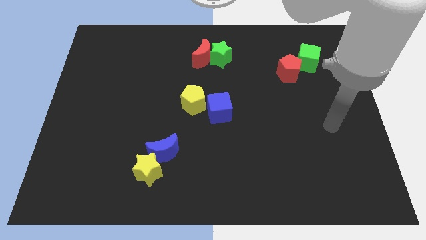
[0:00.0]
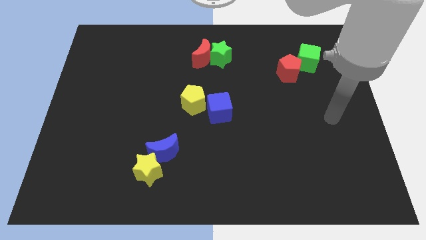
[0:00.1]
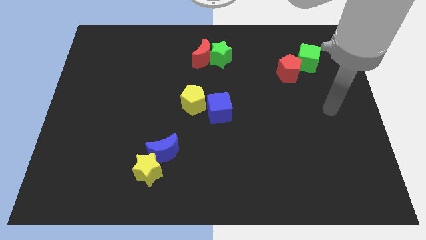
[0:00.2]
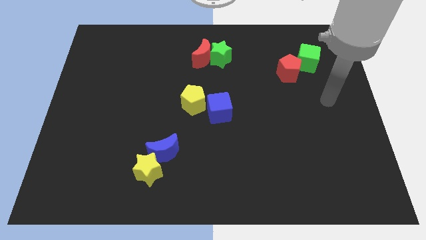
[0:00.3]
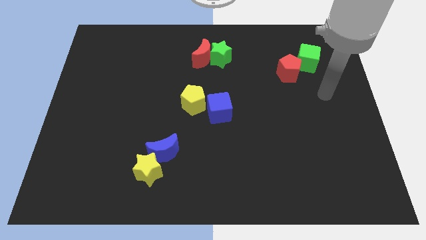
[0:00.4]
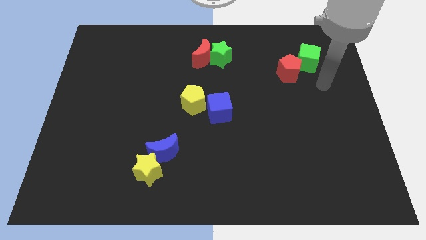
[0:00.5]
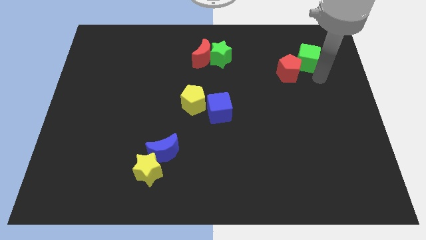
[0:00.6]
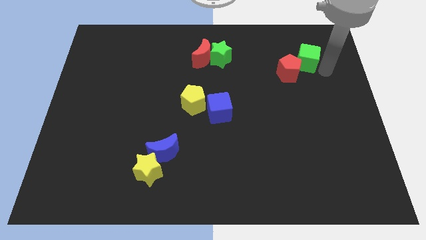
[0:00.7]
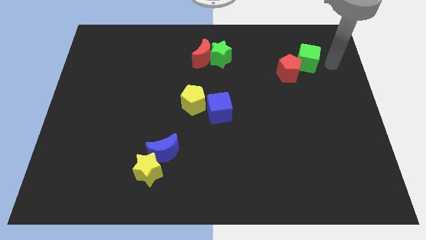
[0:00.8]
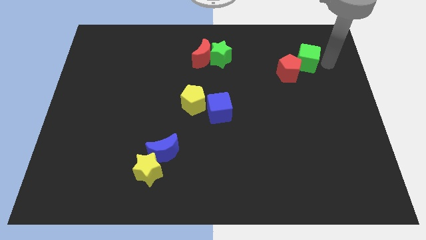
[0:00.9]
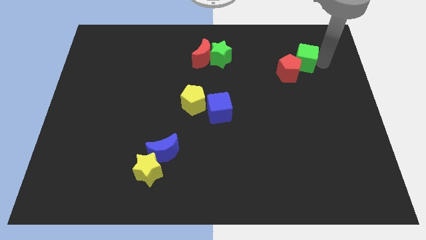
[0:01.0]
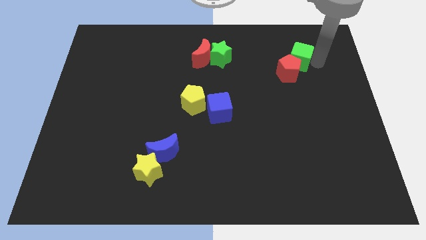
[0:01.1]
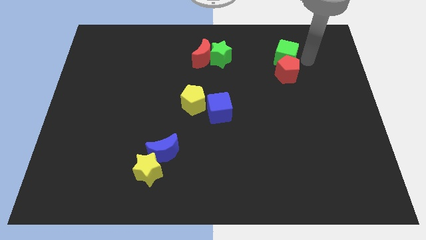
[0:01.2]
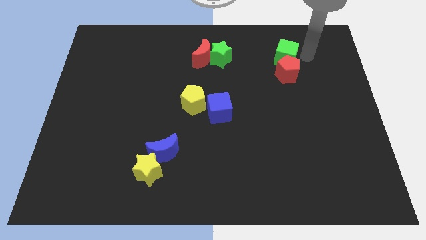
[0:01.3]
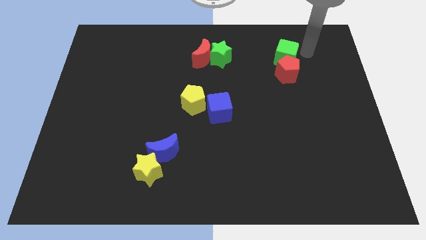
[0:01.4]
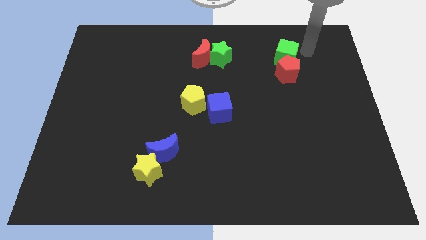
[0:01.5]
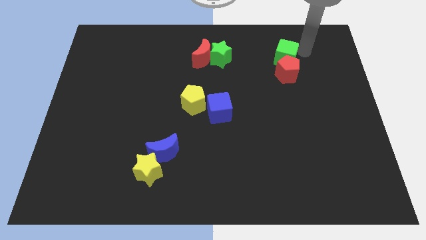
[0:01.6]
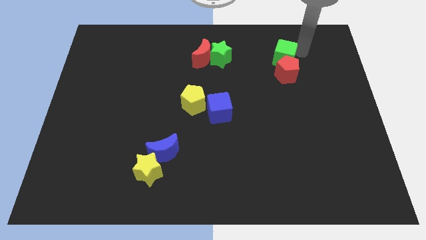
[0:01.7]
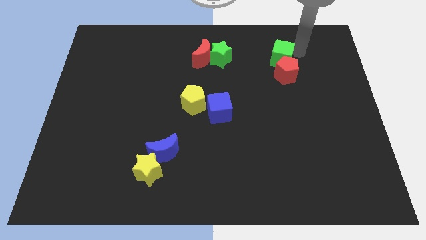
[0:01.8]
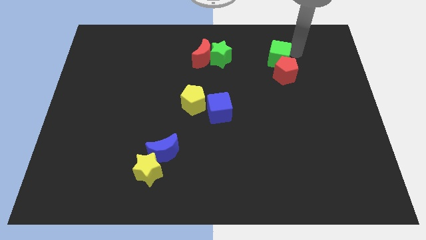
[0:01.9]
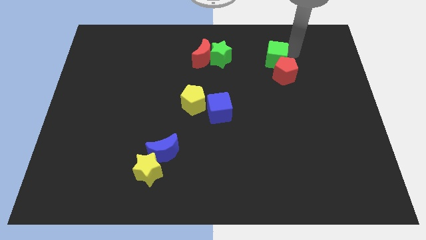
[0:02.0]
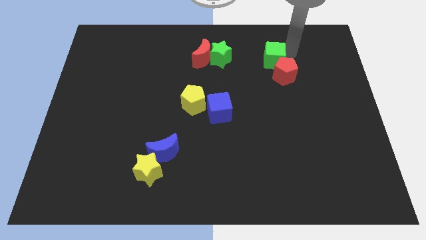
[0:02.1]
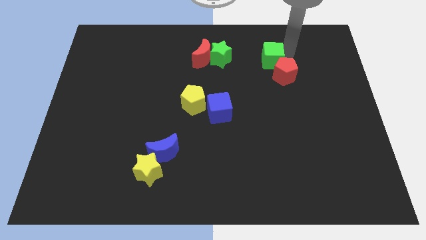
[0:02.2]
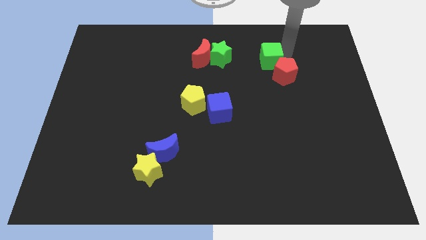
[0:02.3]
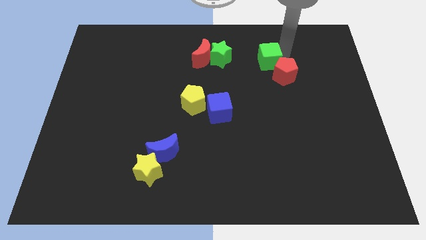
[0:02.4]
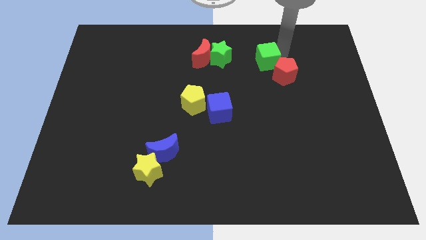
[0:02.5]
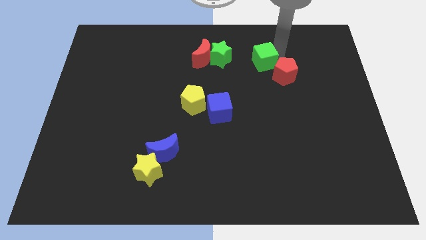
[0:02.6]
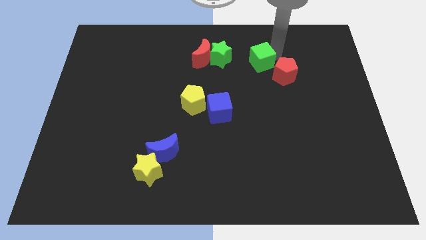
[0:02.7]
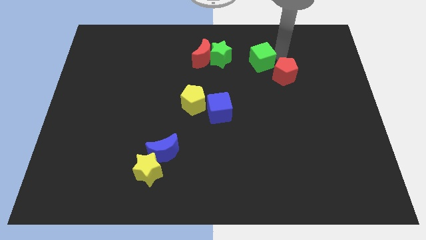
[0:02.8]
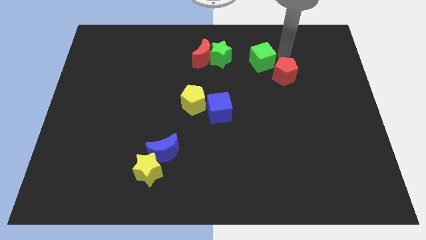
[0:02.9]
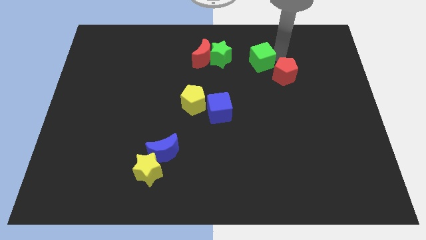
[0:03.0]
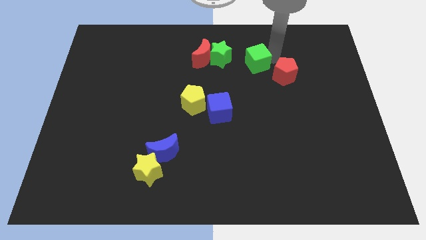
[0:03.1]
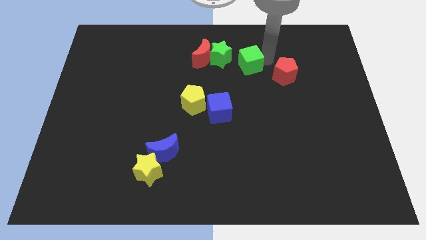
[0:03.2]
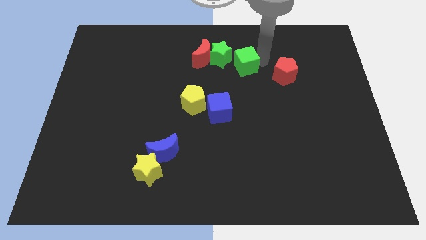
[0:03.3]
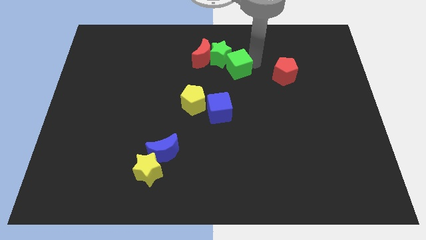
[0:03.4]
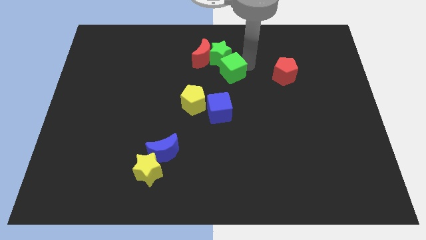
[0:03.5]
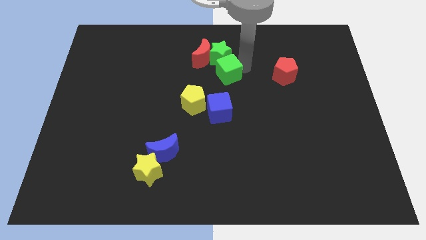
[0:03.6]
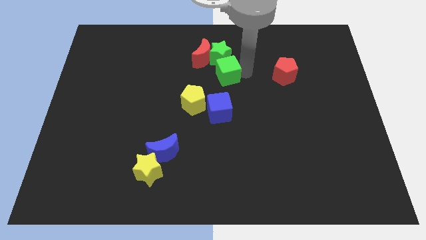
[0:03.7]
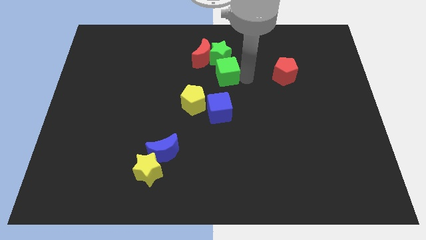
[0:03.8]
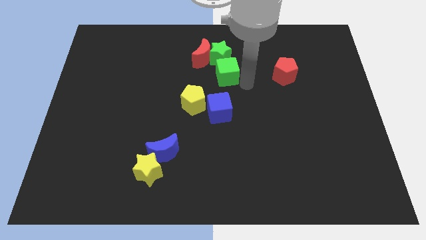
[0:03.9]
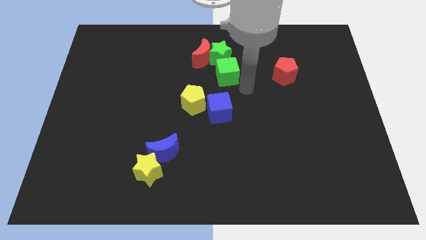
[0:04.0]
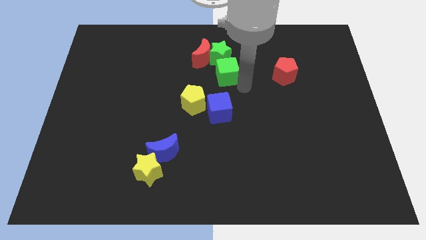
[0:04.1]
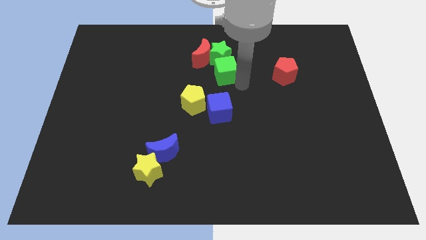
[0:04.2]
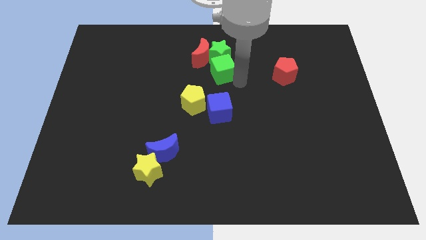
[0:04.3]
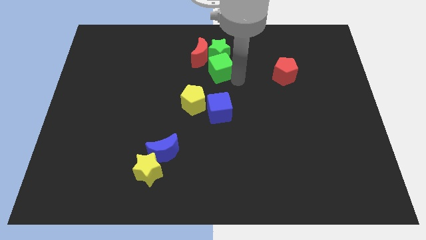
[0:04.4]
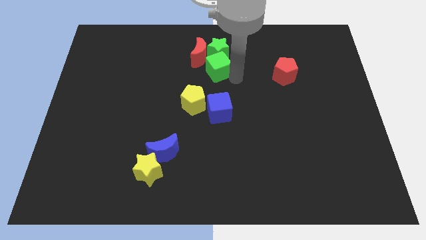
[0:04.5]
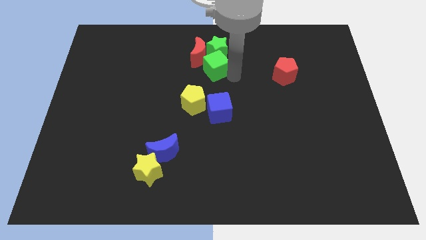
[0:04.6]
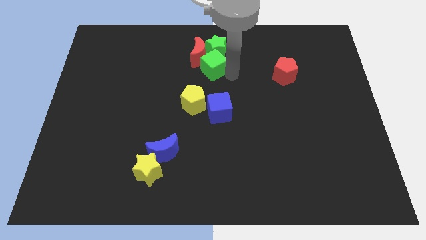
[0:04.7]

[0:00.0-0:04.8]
move the green cube next to the red moon

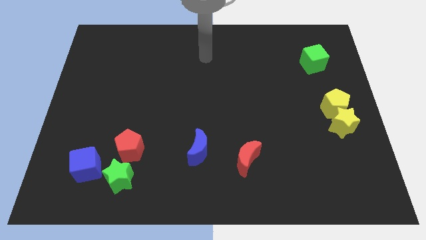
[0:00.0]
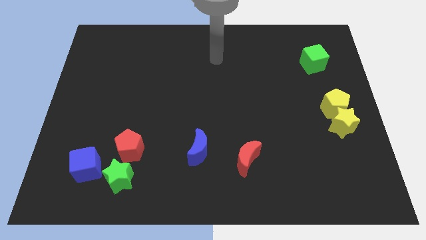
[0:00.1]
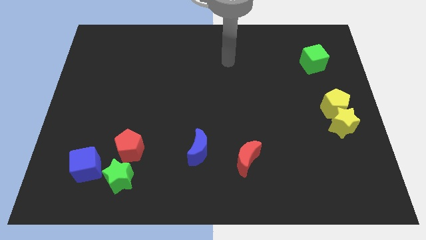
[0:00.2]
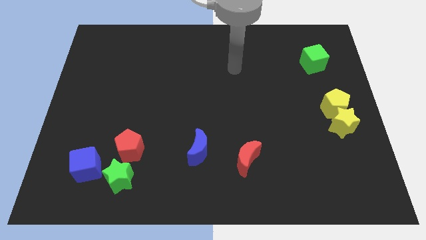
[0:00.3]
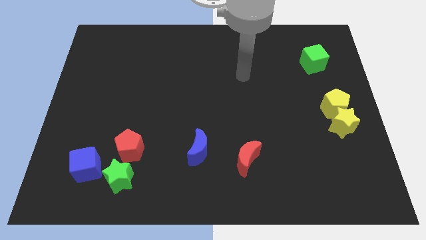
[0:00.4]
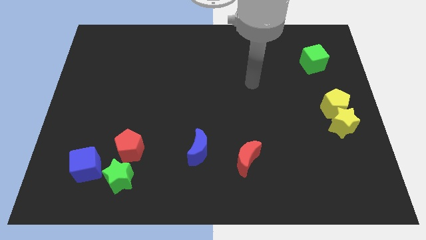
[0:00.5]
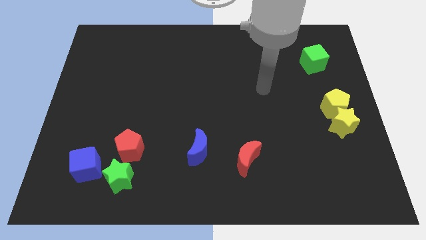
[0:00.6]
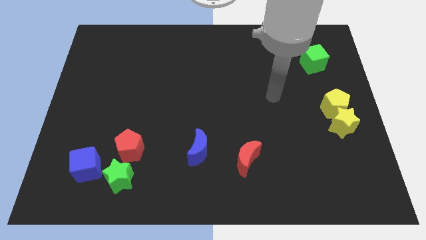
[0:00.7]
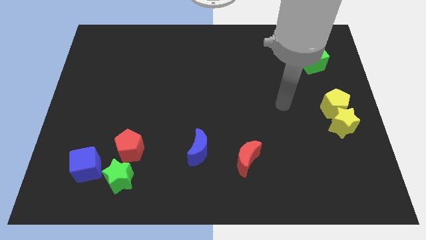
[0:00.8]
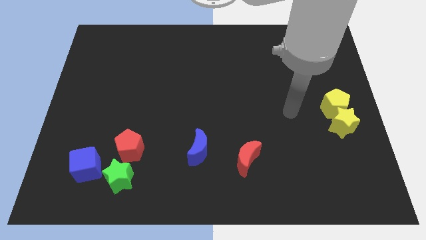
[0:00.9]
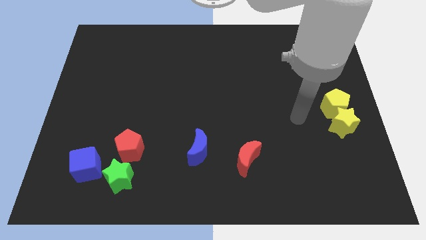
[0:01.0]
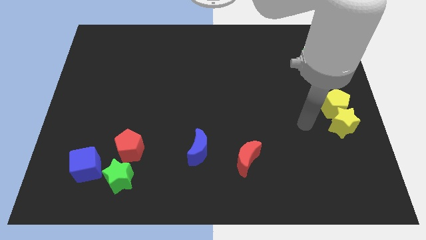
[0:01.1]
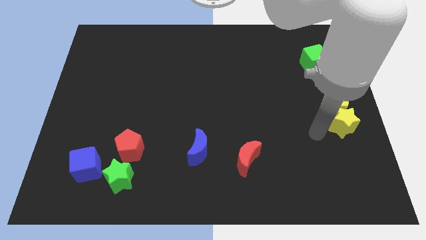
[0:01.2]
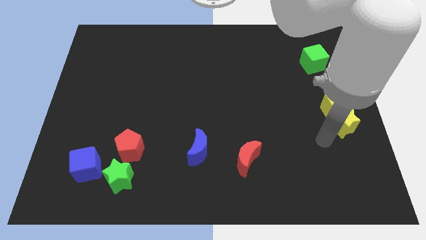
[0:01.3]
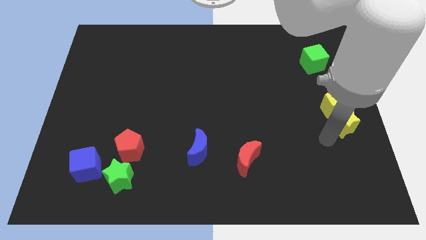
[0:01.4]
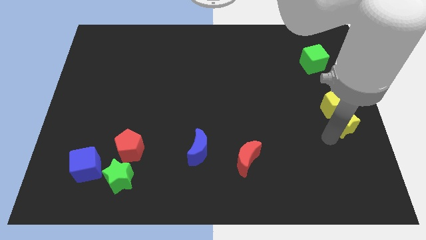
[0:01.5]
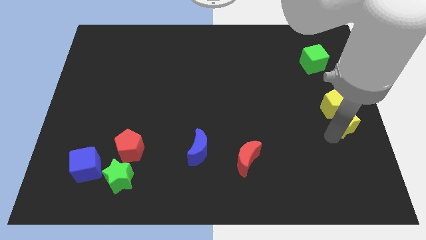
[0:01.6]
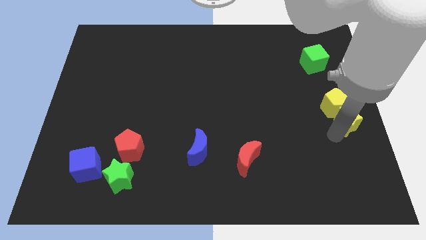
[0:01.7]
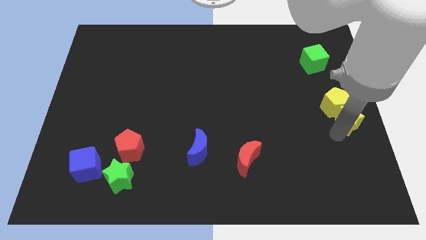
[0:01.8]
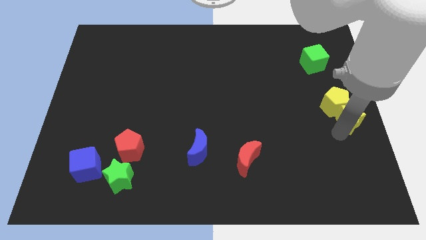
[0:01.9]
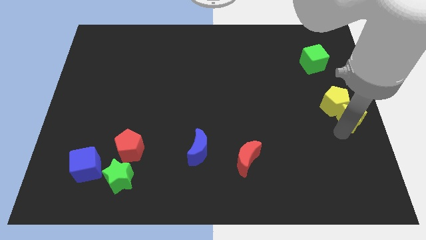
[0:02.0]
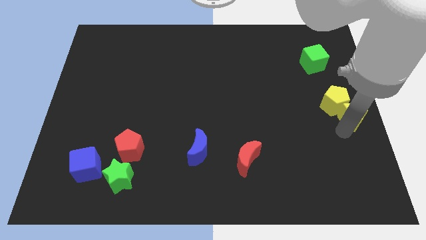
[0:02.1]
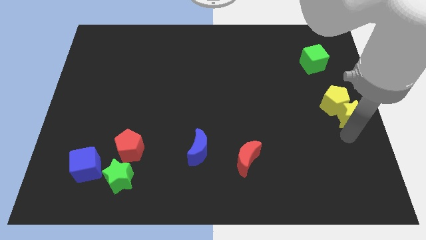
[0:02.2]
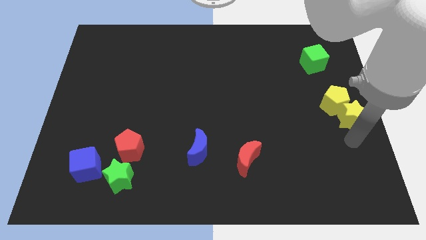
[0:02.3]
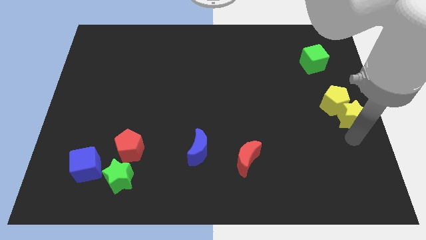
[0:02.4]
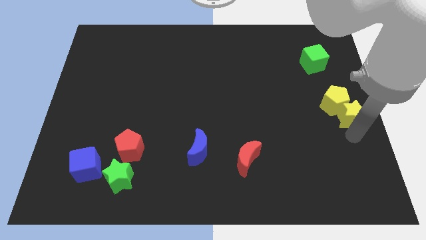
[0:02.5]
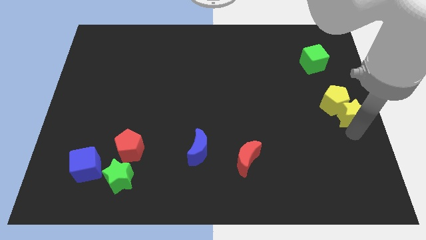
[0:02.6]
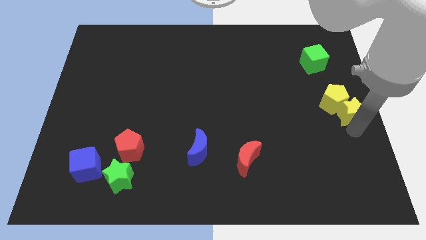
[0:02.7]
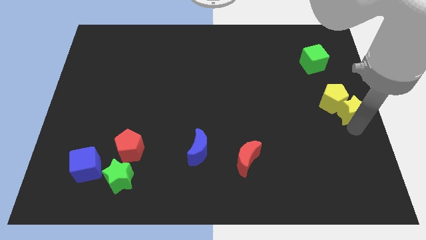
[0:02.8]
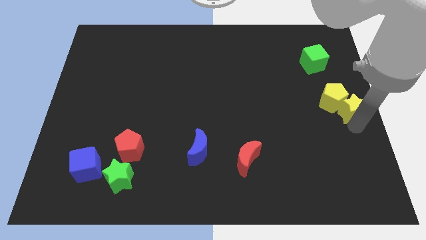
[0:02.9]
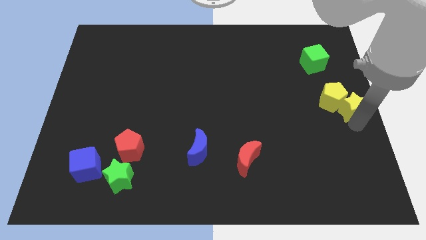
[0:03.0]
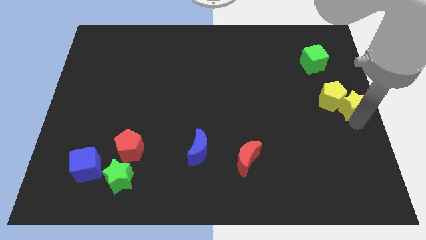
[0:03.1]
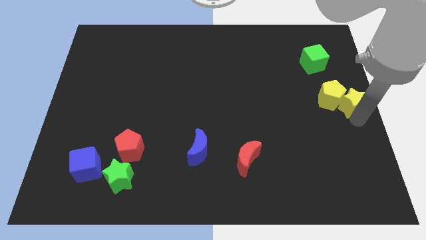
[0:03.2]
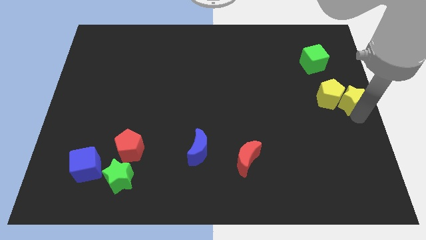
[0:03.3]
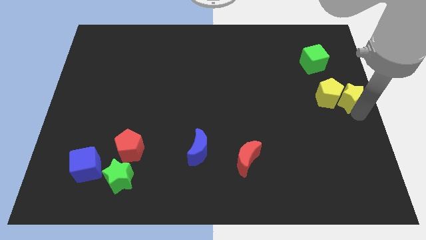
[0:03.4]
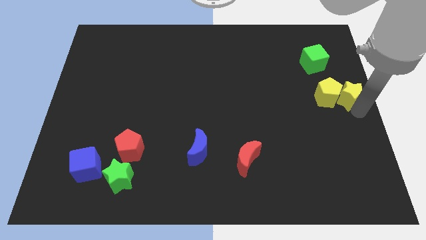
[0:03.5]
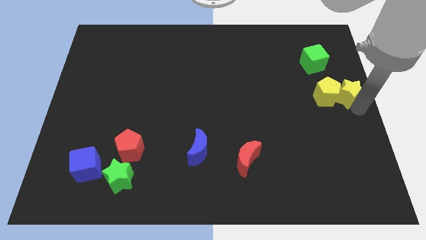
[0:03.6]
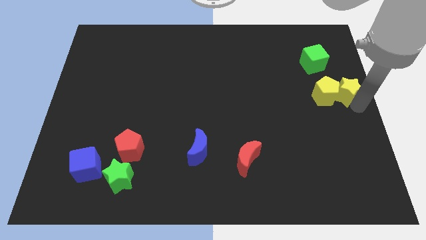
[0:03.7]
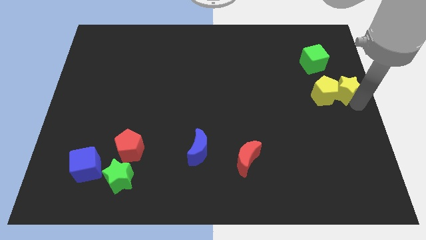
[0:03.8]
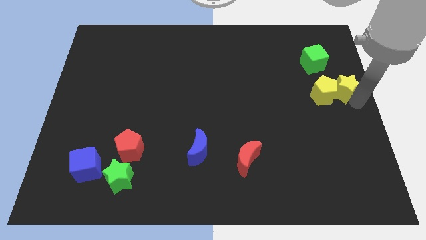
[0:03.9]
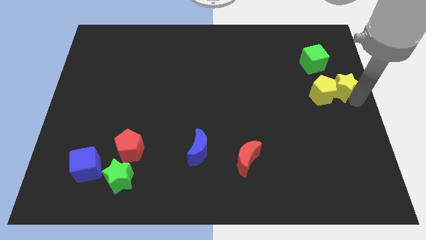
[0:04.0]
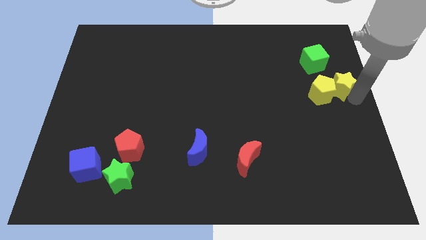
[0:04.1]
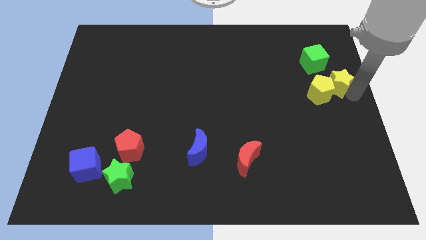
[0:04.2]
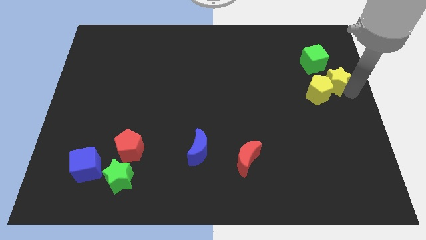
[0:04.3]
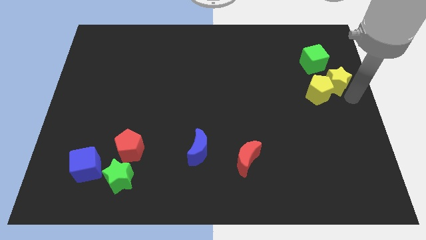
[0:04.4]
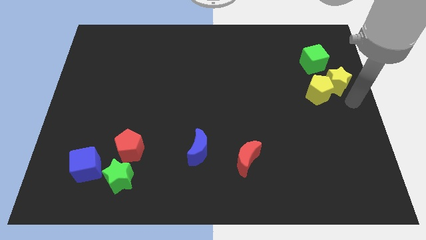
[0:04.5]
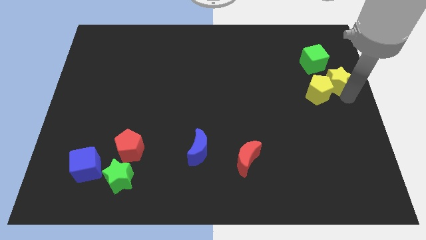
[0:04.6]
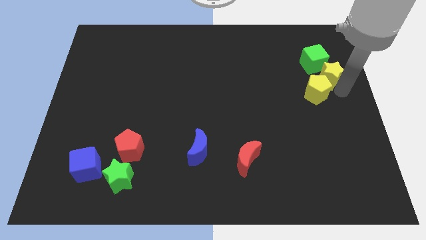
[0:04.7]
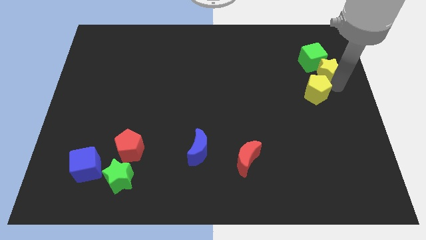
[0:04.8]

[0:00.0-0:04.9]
slide the yellow star close to the green cube
